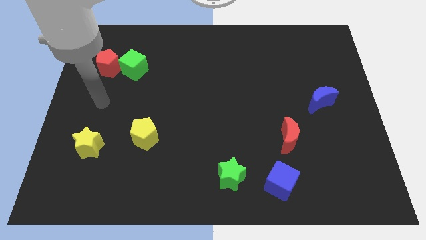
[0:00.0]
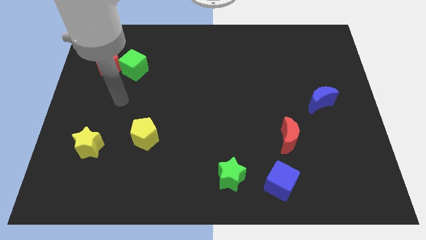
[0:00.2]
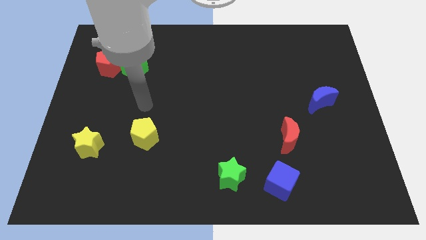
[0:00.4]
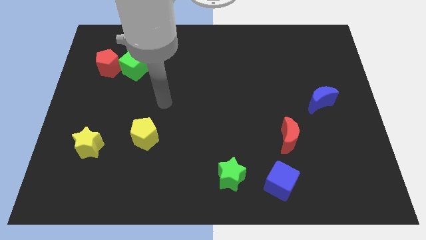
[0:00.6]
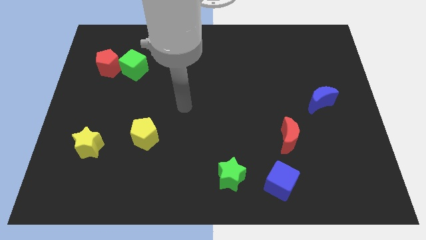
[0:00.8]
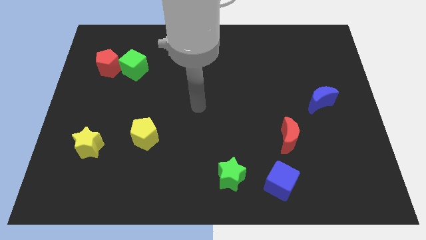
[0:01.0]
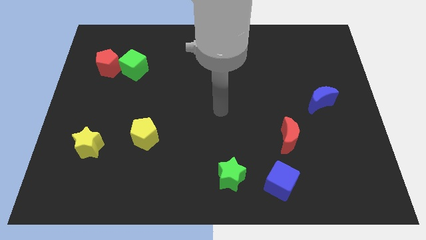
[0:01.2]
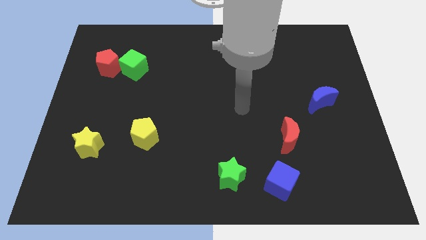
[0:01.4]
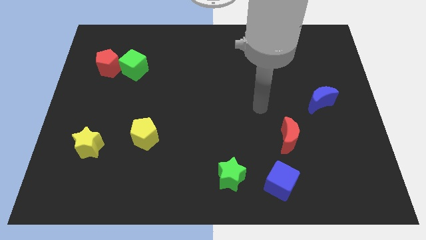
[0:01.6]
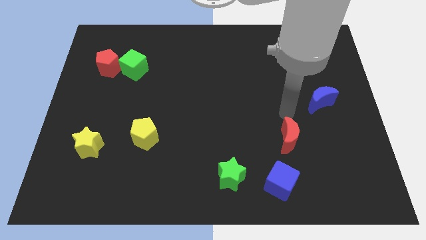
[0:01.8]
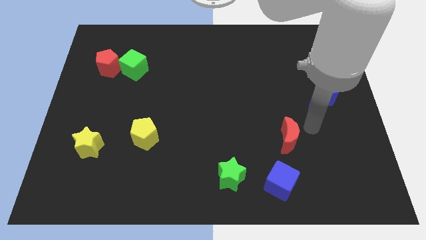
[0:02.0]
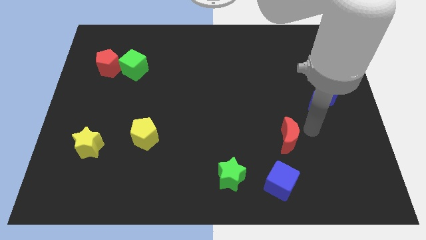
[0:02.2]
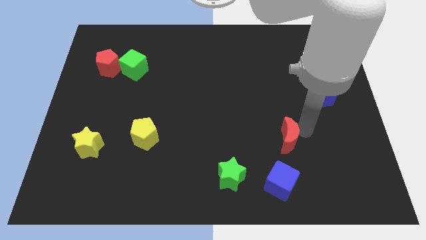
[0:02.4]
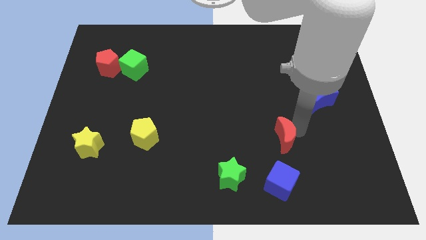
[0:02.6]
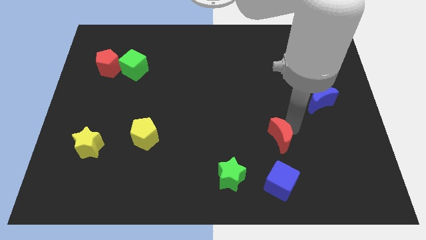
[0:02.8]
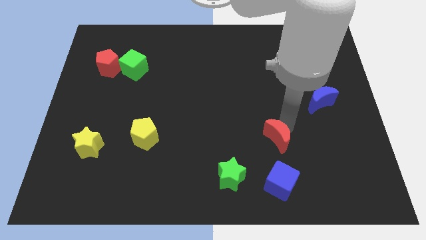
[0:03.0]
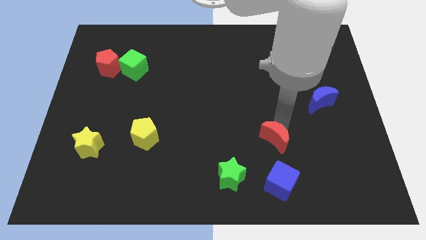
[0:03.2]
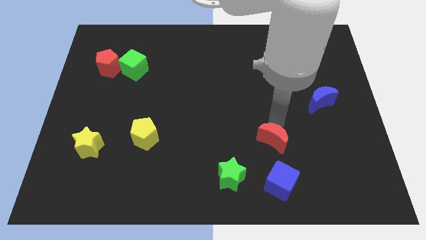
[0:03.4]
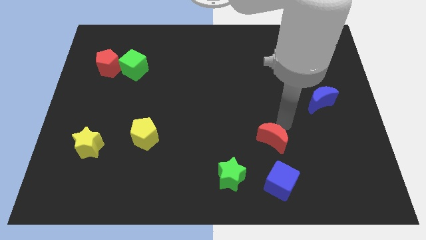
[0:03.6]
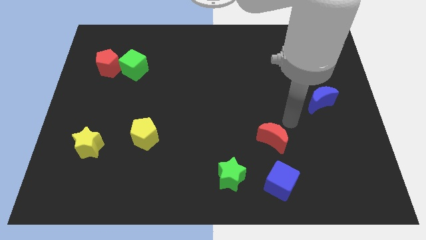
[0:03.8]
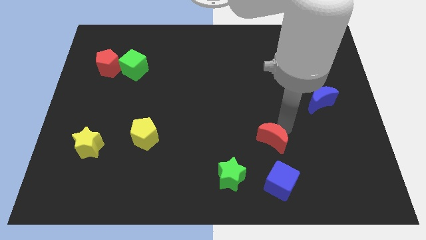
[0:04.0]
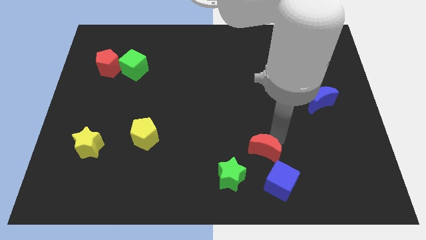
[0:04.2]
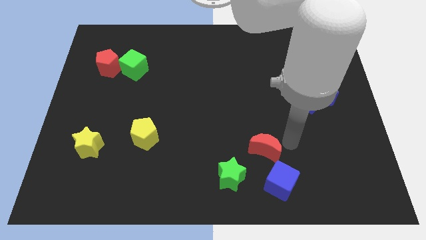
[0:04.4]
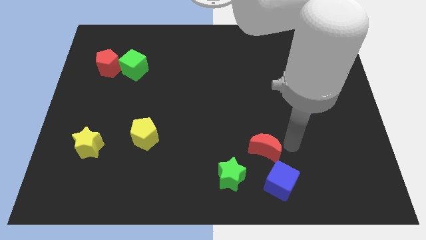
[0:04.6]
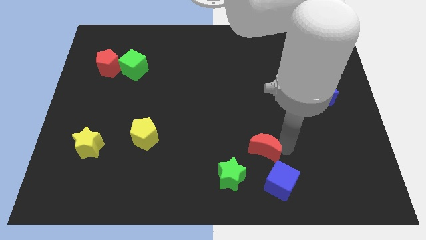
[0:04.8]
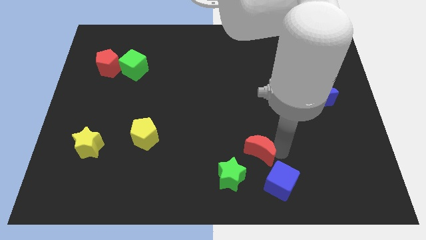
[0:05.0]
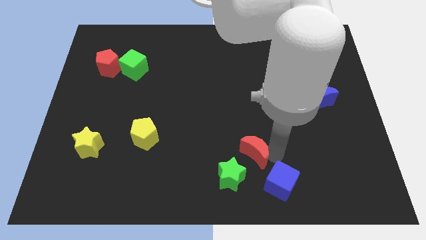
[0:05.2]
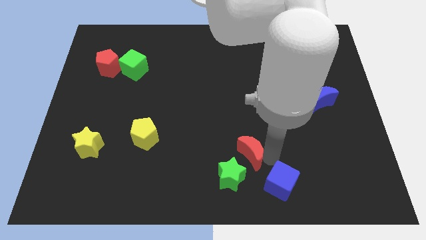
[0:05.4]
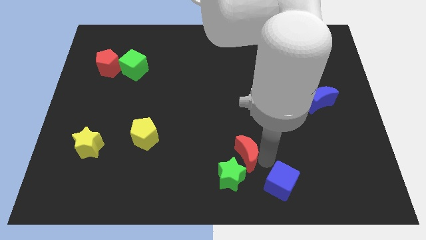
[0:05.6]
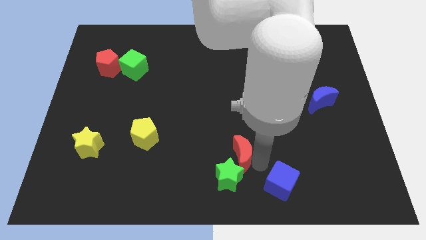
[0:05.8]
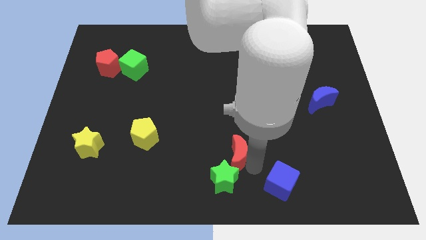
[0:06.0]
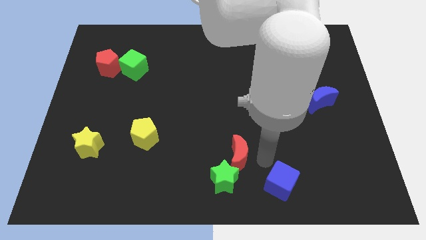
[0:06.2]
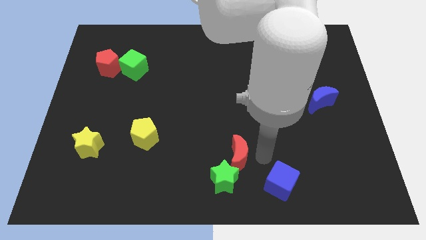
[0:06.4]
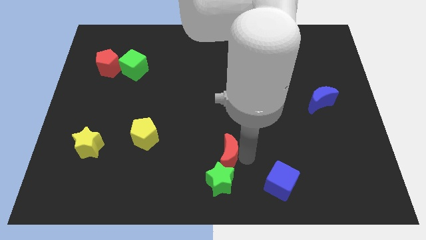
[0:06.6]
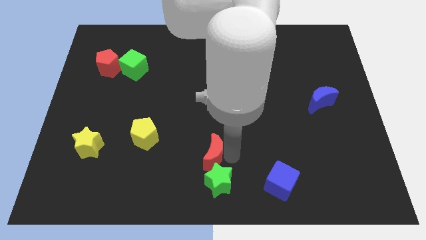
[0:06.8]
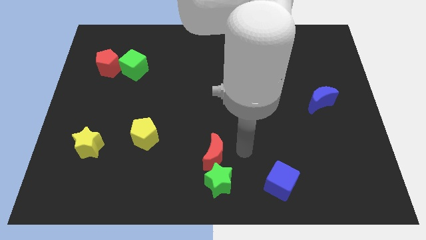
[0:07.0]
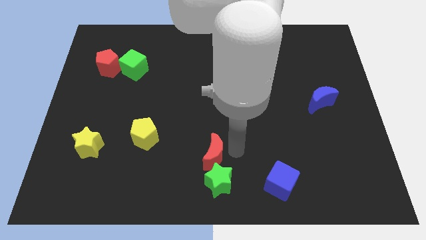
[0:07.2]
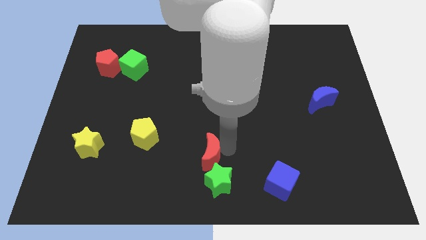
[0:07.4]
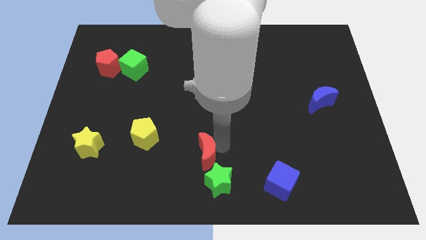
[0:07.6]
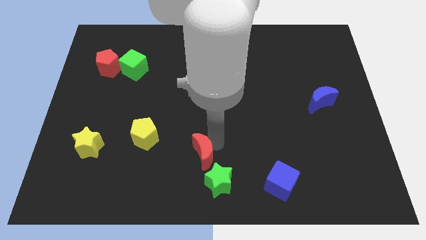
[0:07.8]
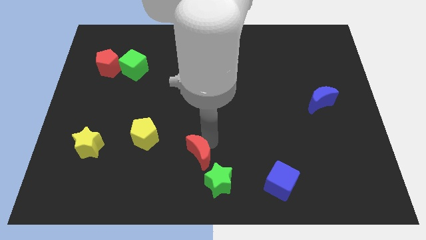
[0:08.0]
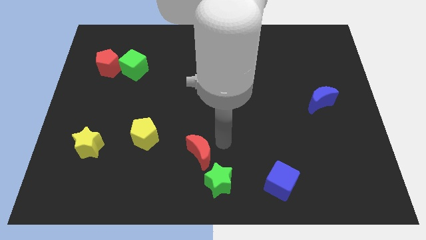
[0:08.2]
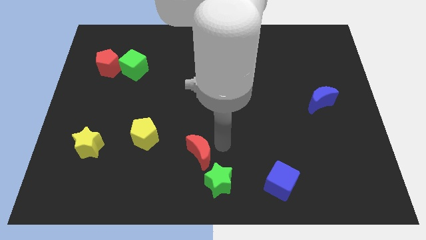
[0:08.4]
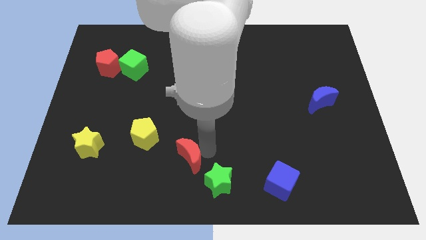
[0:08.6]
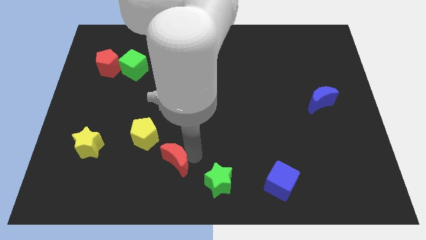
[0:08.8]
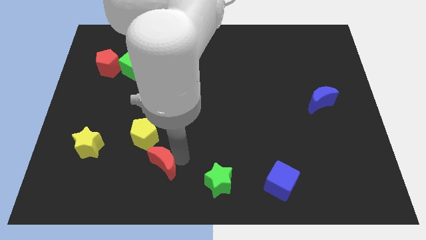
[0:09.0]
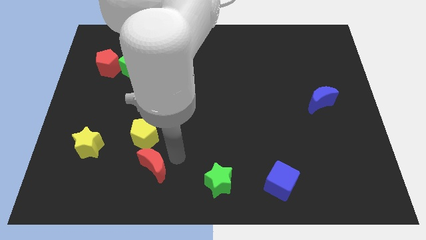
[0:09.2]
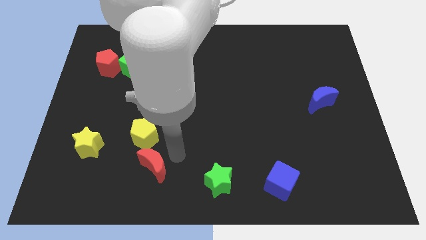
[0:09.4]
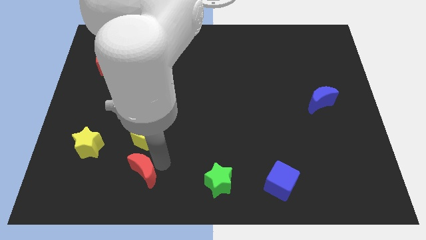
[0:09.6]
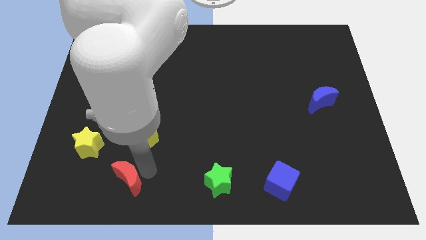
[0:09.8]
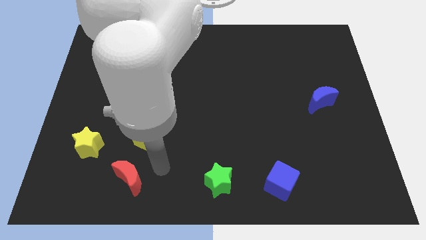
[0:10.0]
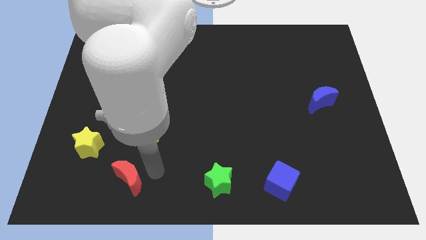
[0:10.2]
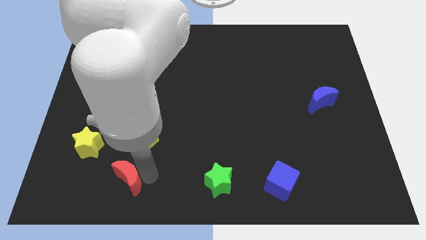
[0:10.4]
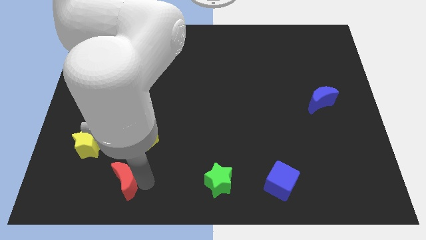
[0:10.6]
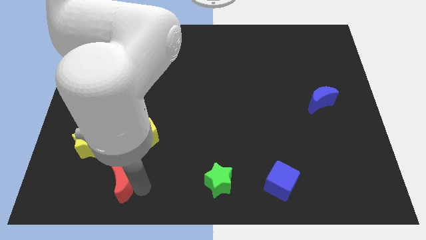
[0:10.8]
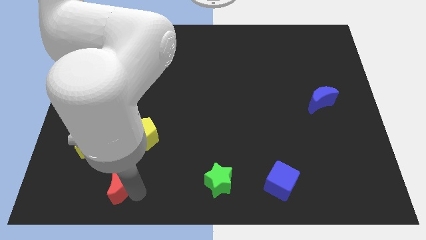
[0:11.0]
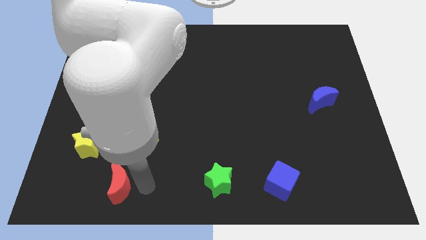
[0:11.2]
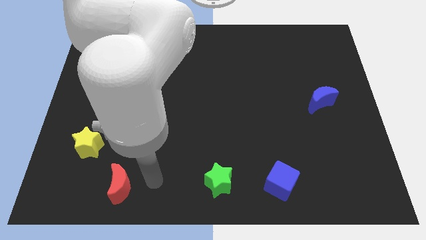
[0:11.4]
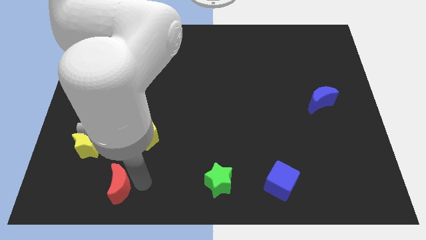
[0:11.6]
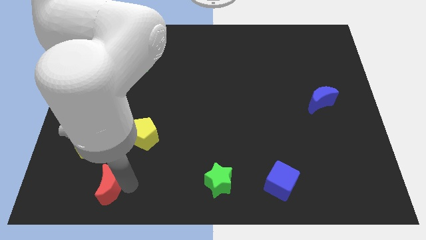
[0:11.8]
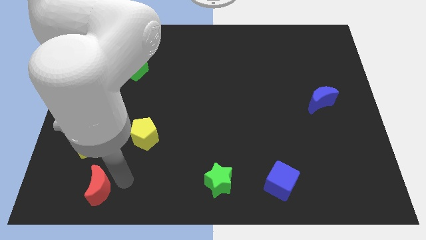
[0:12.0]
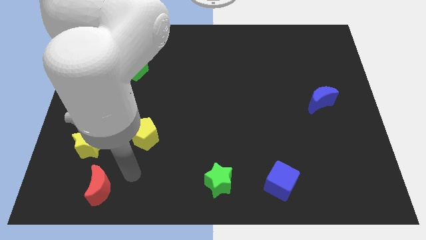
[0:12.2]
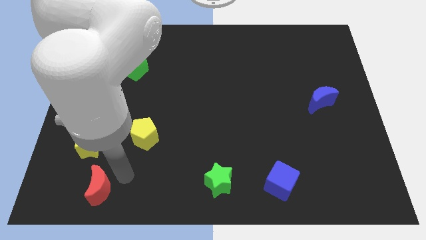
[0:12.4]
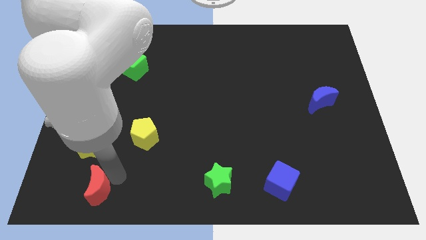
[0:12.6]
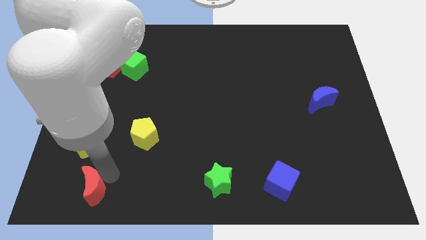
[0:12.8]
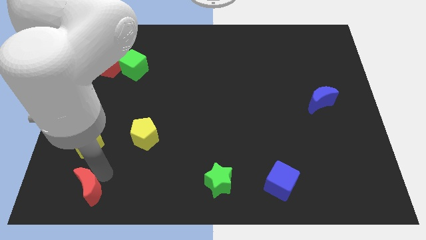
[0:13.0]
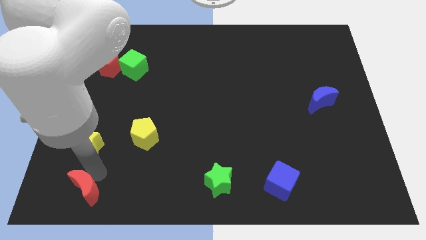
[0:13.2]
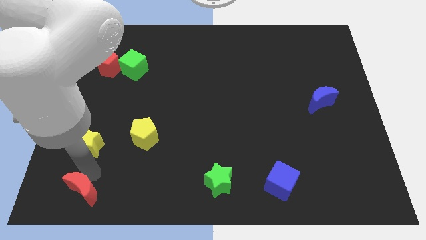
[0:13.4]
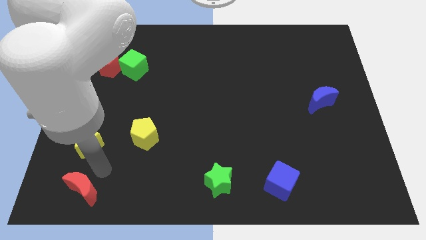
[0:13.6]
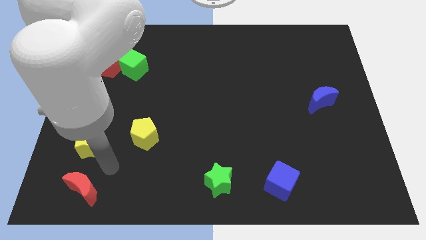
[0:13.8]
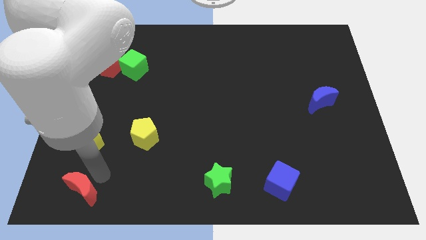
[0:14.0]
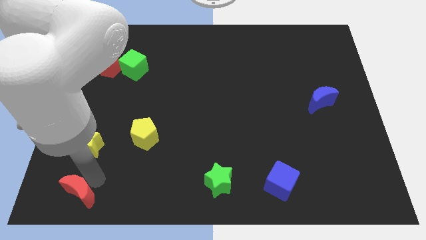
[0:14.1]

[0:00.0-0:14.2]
put the red moon to the bottom left of the board
